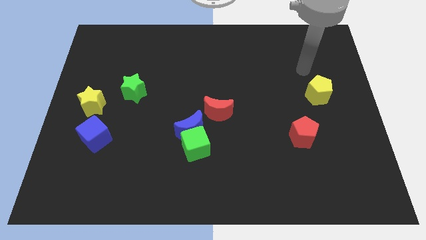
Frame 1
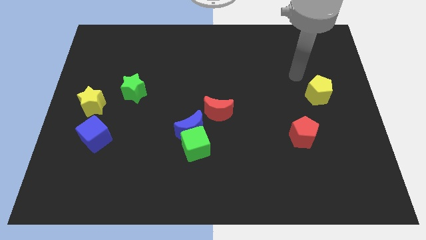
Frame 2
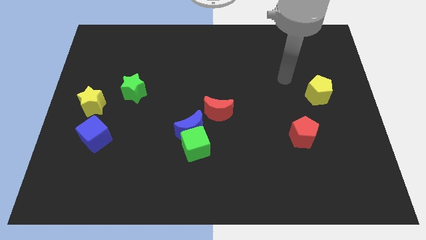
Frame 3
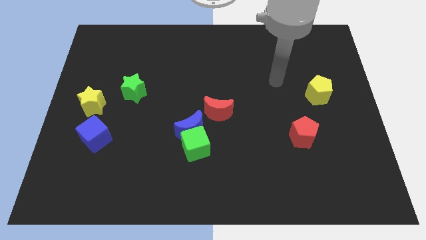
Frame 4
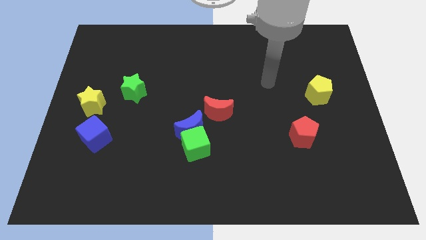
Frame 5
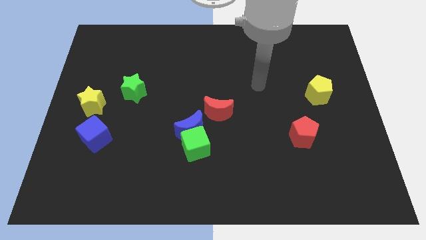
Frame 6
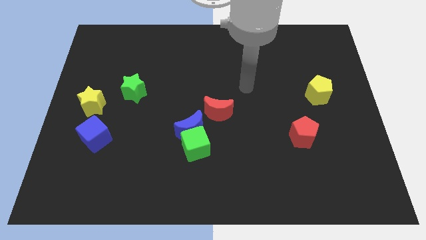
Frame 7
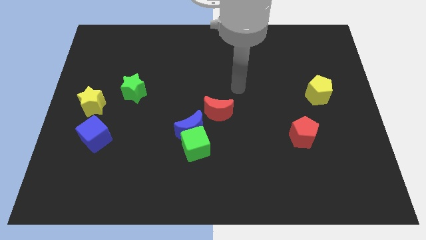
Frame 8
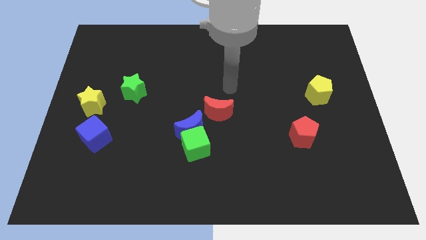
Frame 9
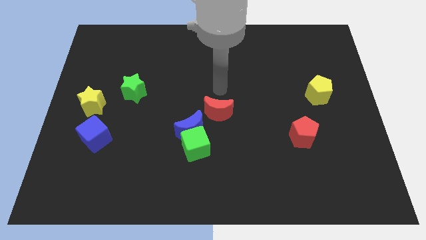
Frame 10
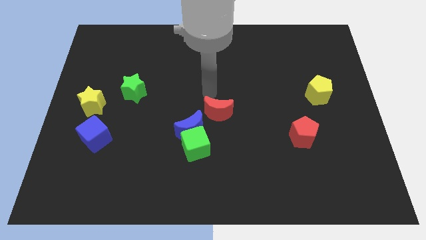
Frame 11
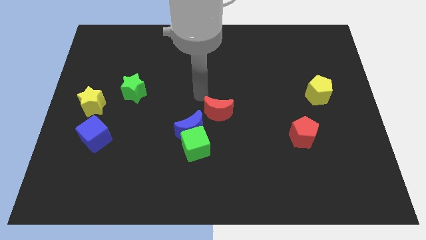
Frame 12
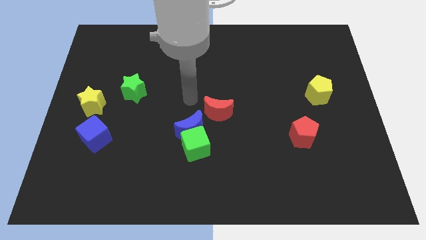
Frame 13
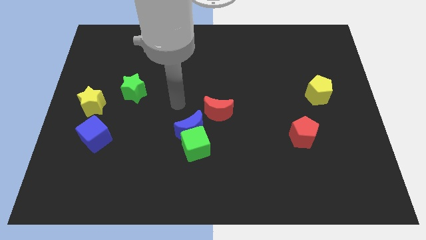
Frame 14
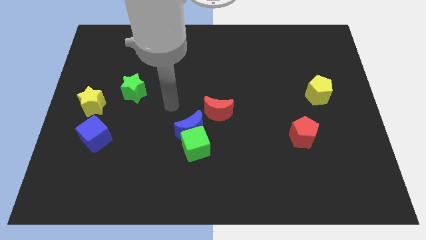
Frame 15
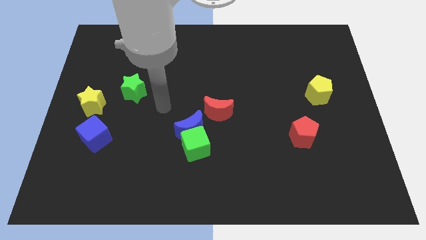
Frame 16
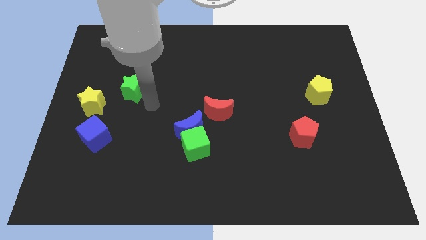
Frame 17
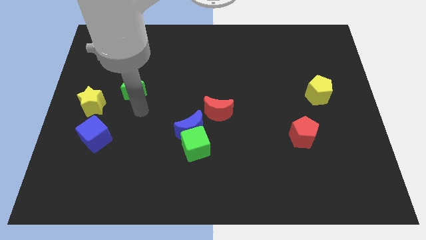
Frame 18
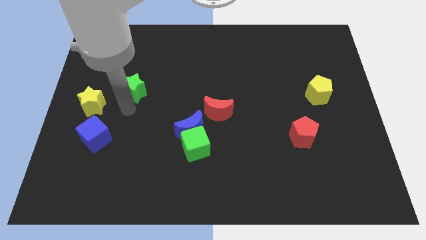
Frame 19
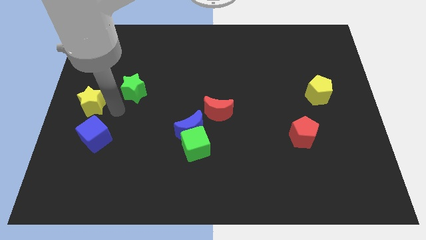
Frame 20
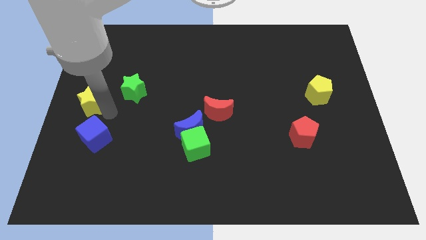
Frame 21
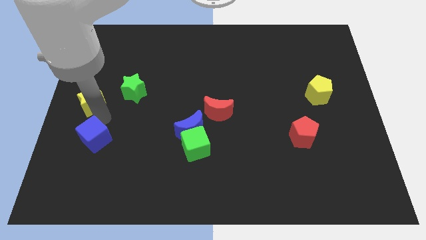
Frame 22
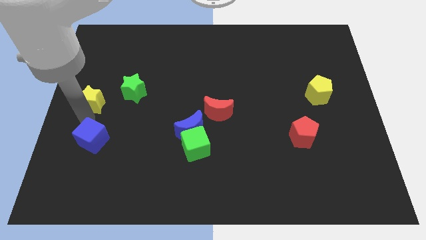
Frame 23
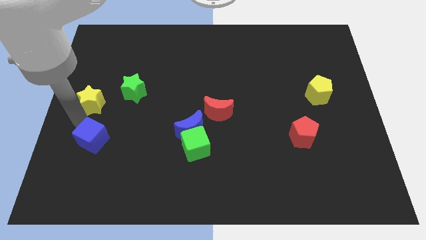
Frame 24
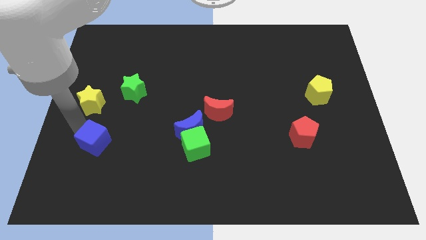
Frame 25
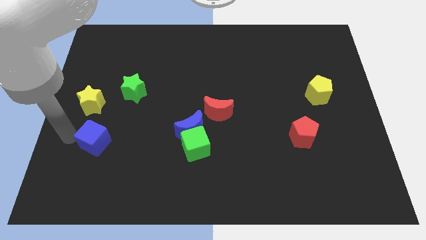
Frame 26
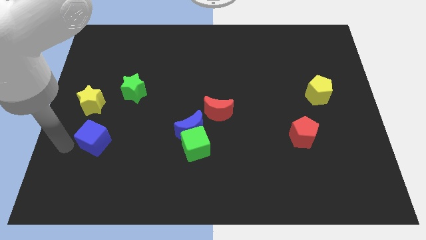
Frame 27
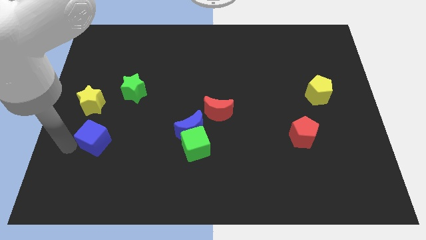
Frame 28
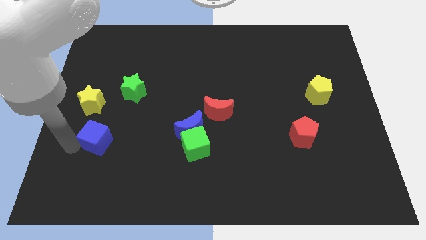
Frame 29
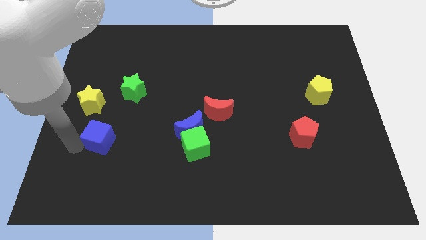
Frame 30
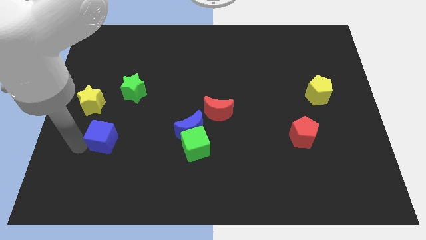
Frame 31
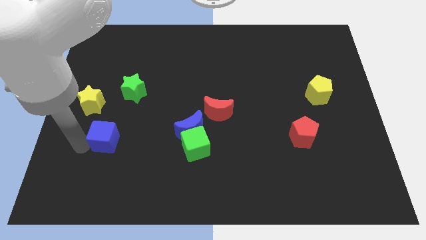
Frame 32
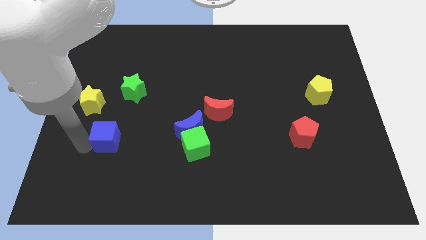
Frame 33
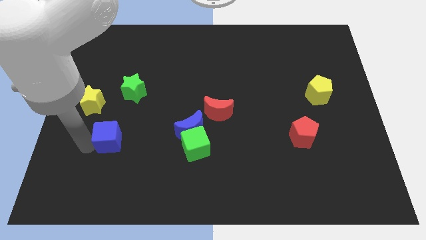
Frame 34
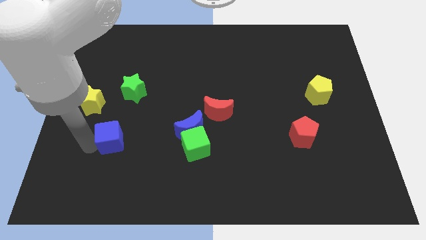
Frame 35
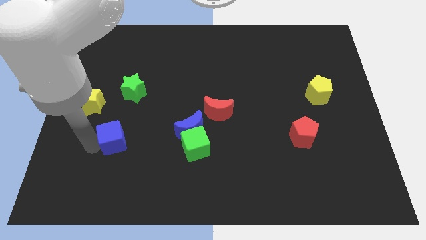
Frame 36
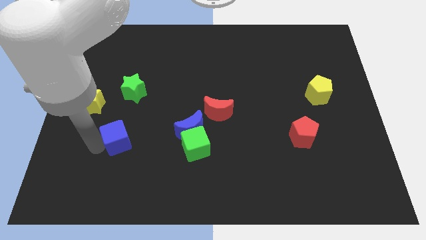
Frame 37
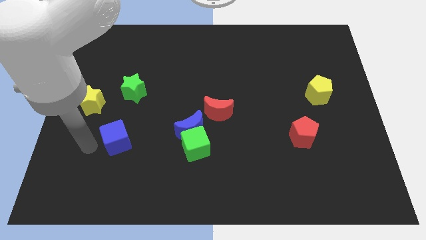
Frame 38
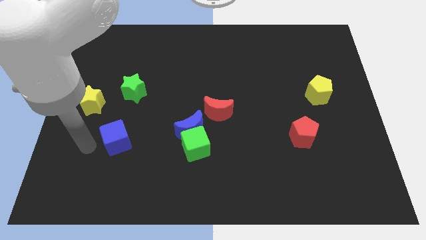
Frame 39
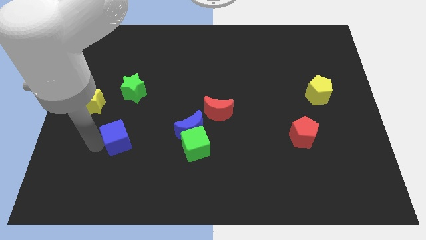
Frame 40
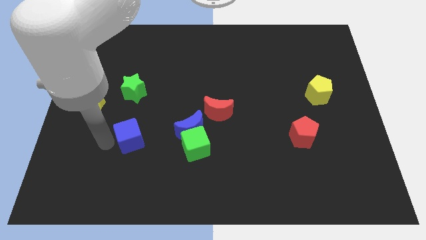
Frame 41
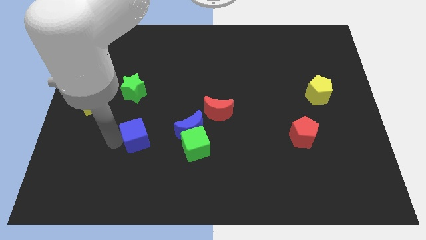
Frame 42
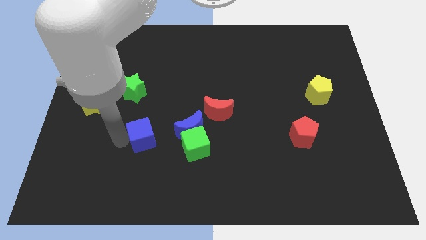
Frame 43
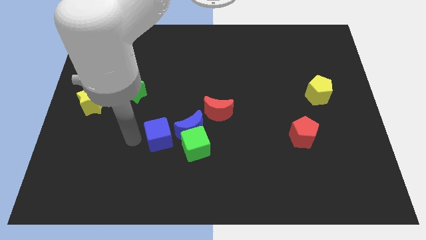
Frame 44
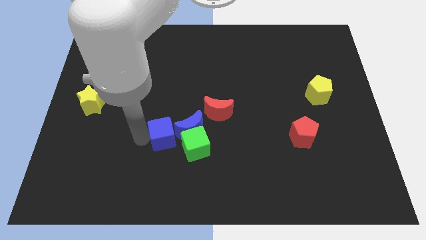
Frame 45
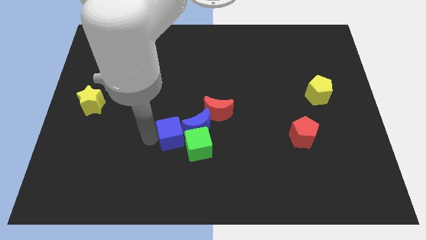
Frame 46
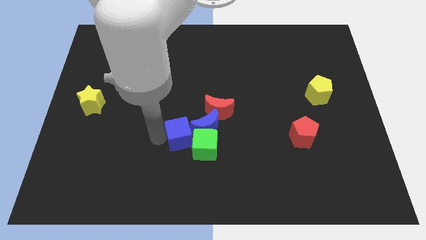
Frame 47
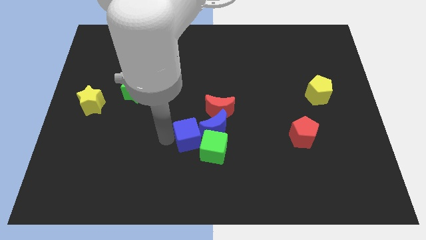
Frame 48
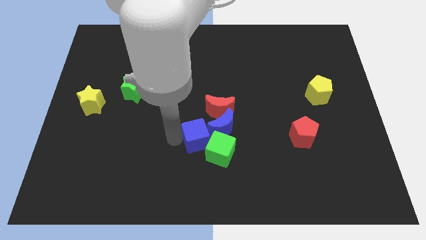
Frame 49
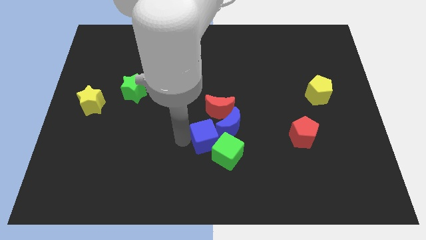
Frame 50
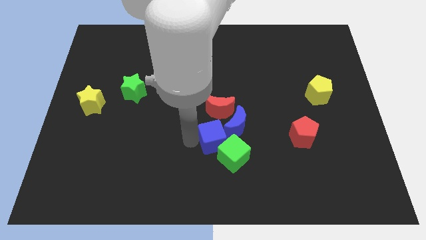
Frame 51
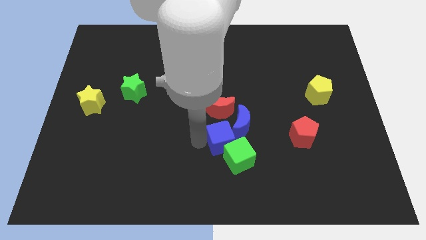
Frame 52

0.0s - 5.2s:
put the blue cube to the blue moon
